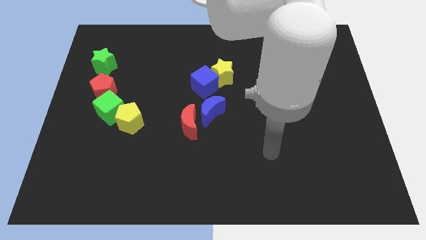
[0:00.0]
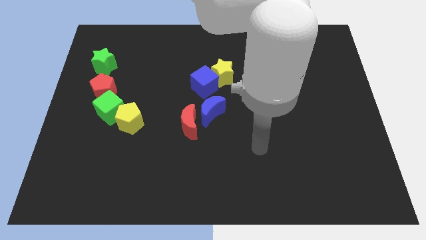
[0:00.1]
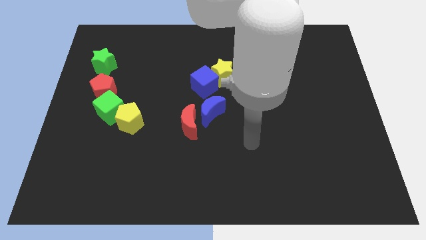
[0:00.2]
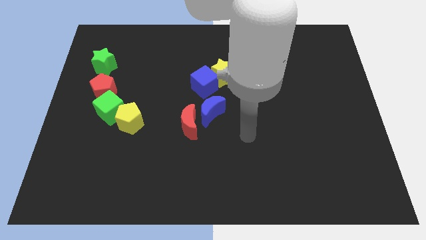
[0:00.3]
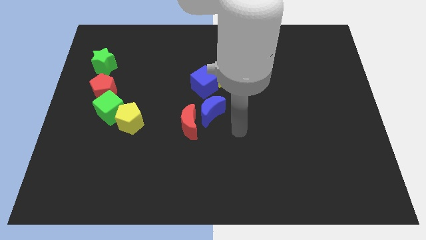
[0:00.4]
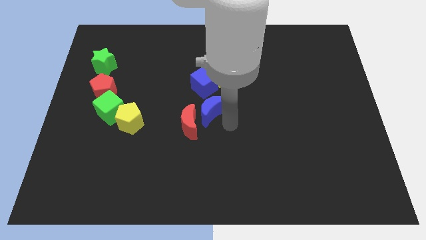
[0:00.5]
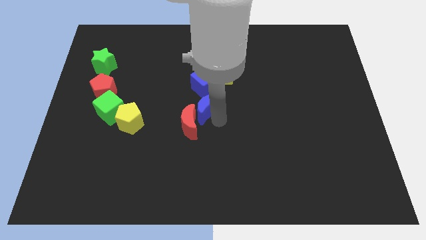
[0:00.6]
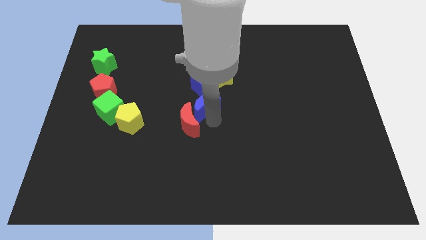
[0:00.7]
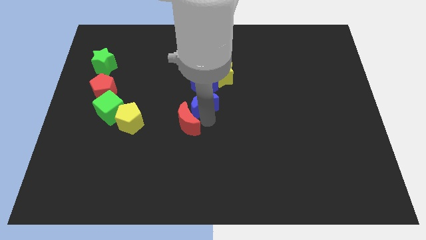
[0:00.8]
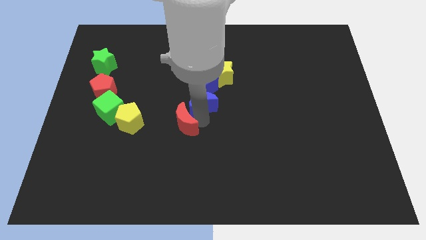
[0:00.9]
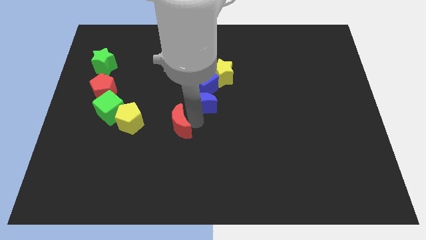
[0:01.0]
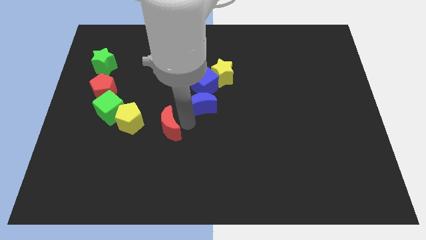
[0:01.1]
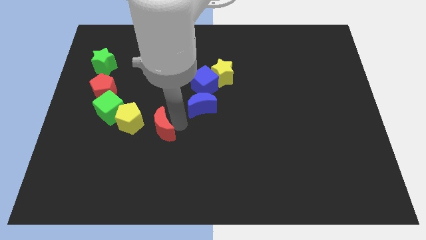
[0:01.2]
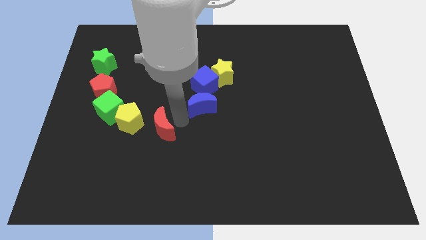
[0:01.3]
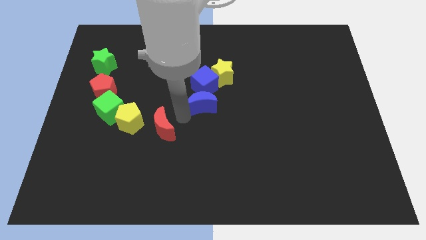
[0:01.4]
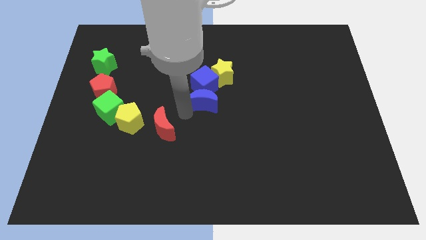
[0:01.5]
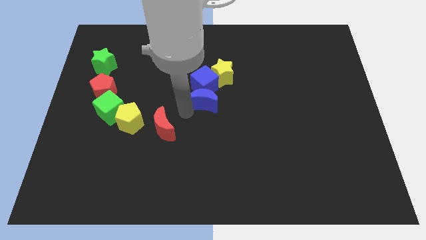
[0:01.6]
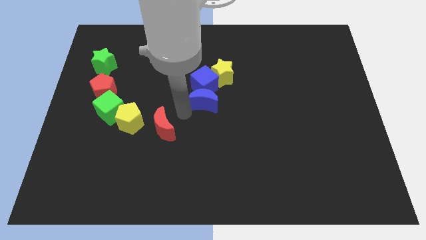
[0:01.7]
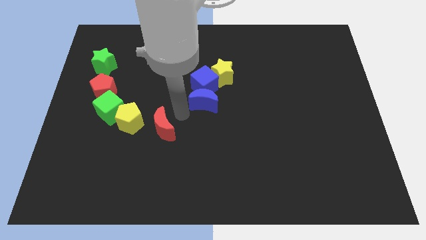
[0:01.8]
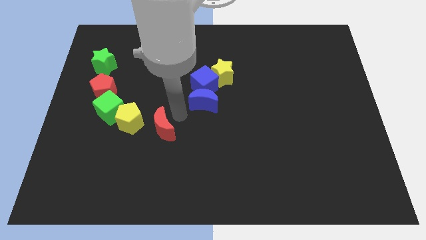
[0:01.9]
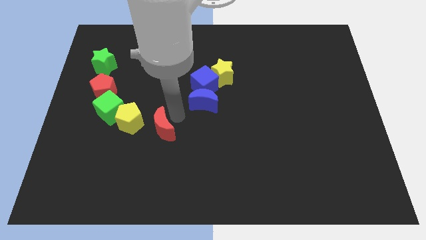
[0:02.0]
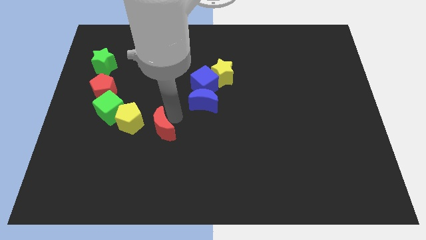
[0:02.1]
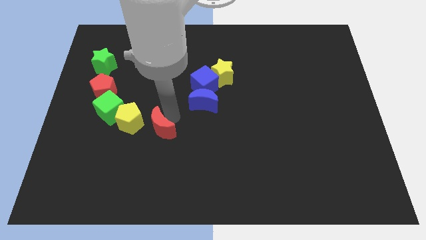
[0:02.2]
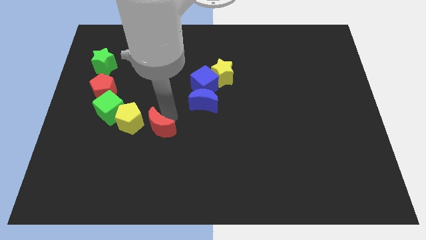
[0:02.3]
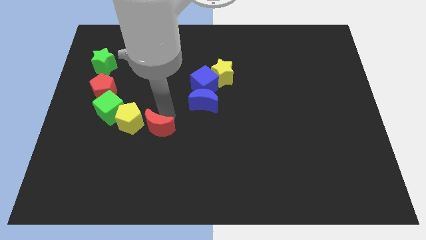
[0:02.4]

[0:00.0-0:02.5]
slightly push the red moon to the left

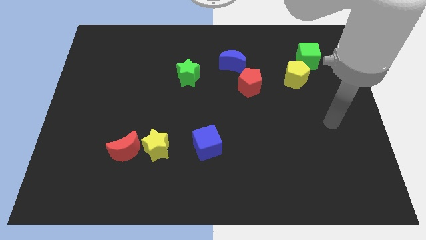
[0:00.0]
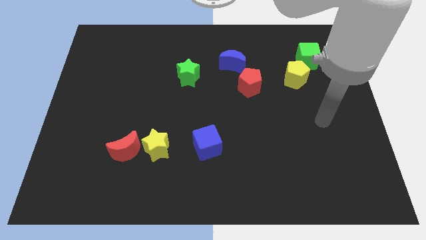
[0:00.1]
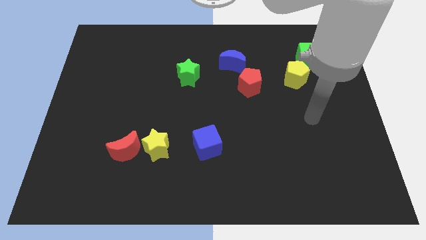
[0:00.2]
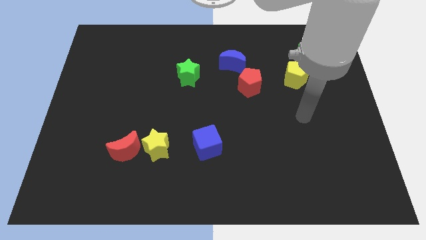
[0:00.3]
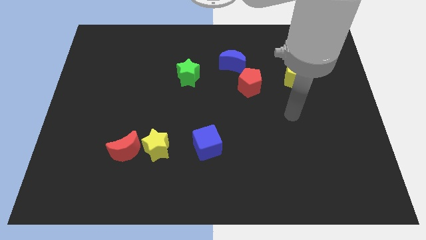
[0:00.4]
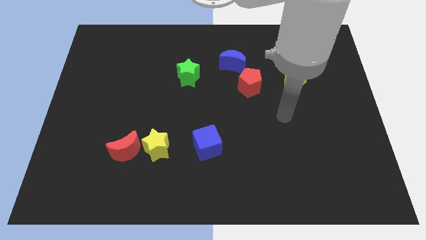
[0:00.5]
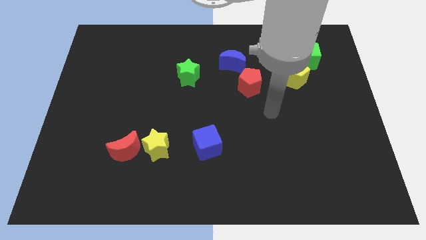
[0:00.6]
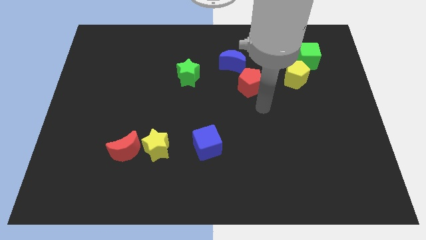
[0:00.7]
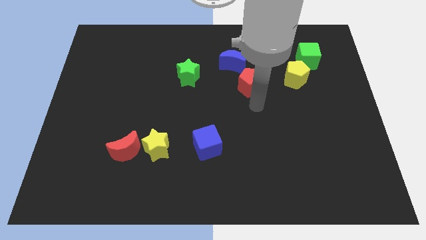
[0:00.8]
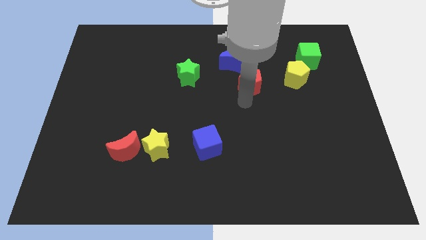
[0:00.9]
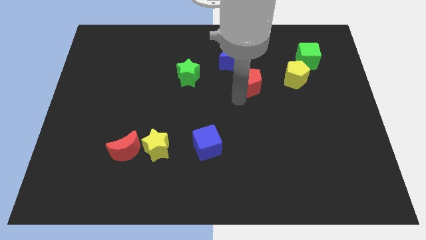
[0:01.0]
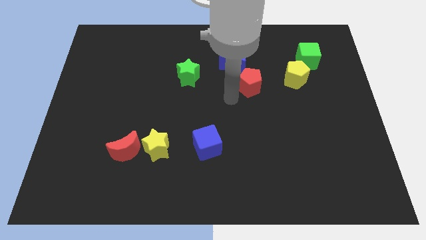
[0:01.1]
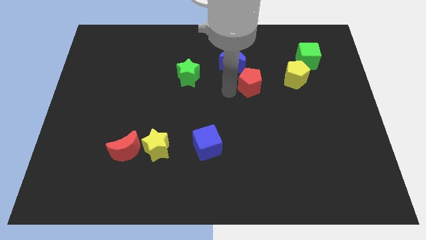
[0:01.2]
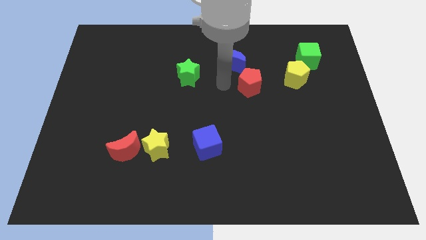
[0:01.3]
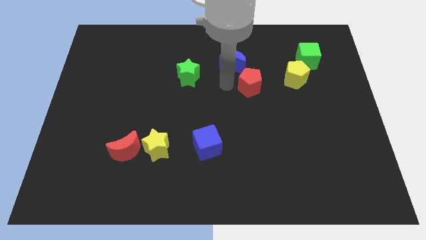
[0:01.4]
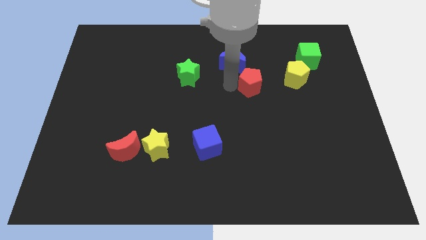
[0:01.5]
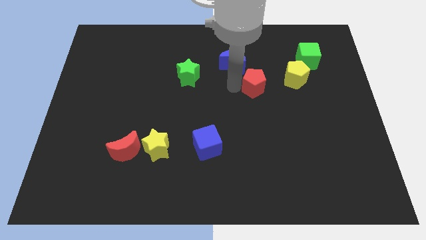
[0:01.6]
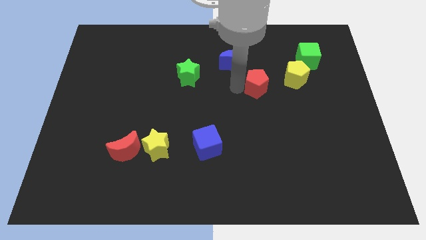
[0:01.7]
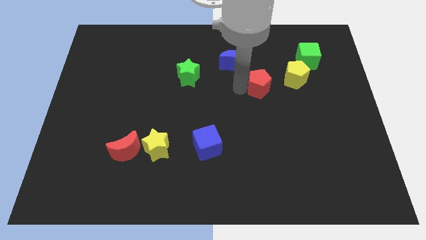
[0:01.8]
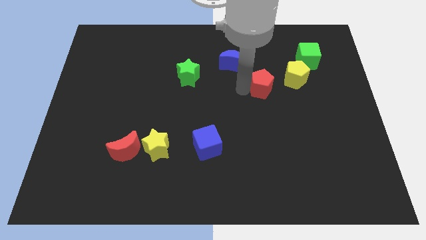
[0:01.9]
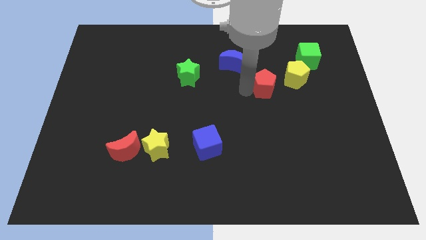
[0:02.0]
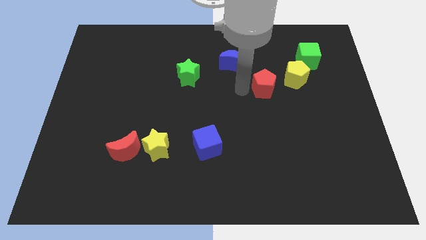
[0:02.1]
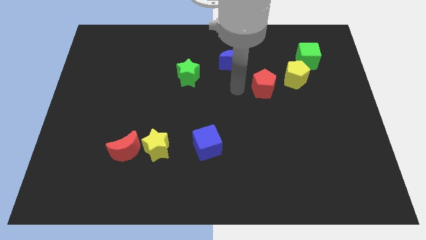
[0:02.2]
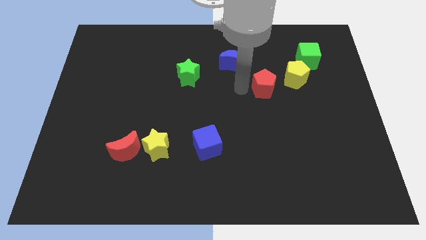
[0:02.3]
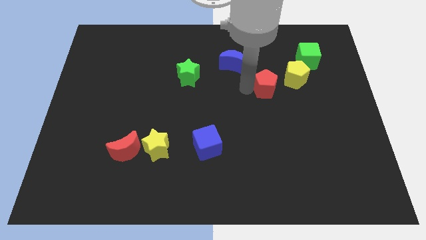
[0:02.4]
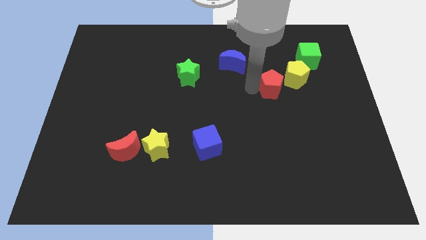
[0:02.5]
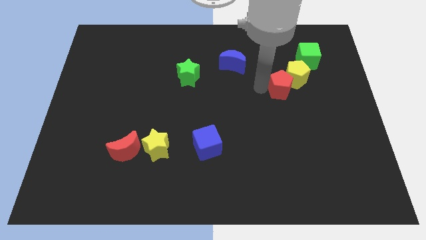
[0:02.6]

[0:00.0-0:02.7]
slightly move the red pentagon right

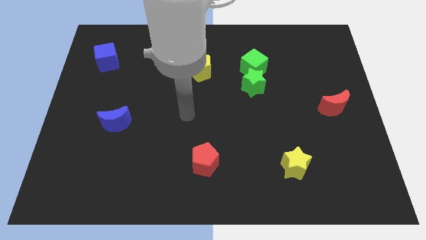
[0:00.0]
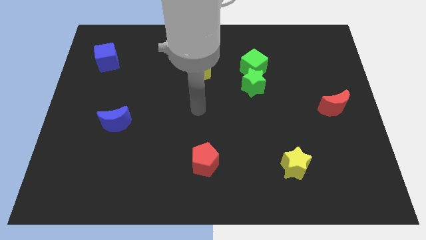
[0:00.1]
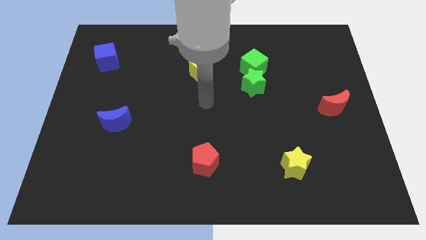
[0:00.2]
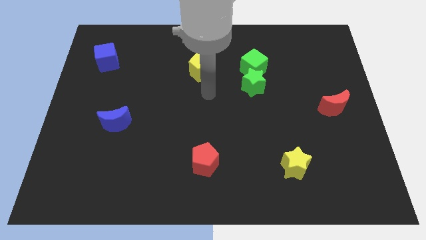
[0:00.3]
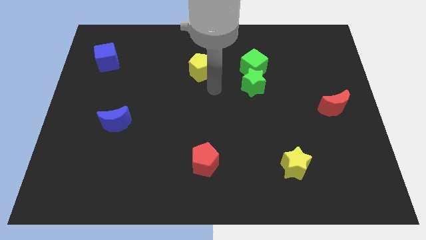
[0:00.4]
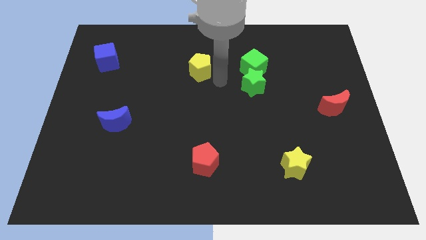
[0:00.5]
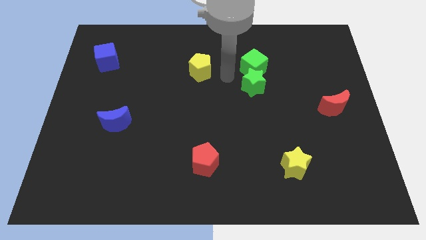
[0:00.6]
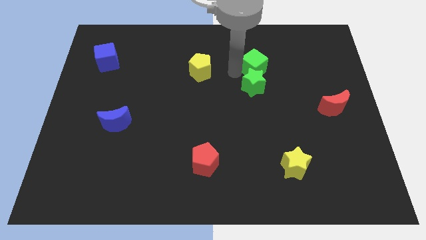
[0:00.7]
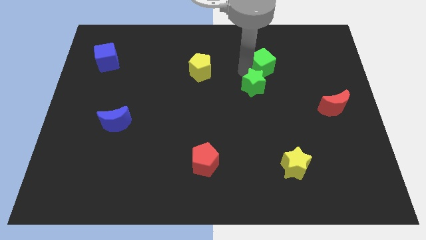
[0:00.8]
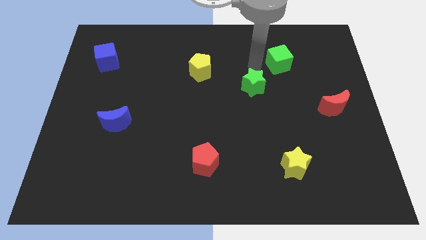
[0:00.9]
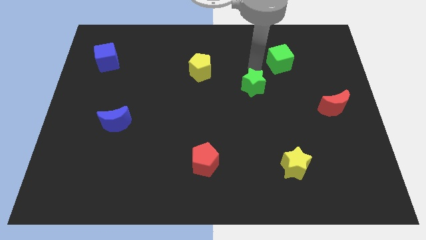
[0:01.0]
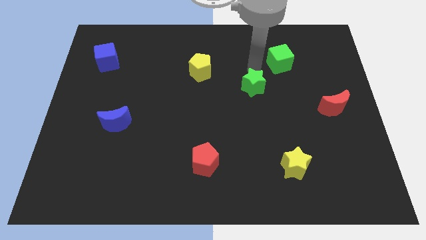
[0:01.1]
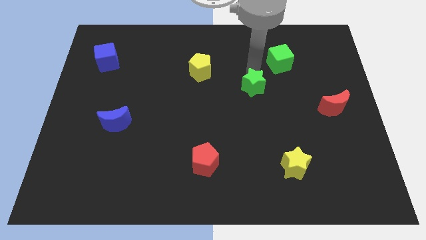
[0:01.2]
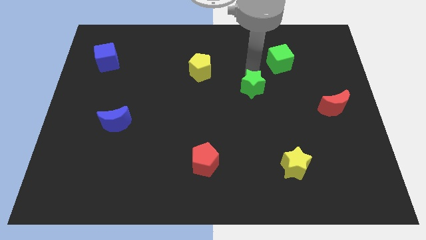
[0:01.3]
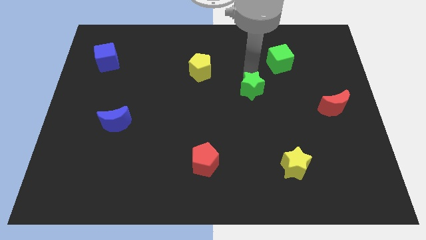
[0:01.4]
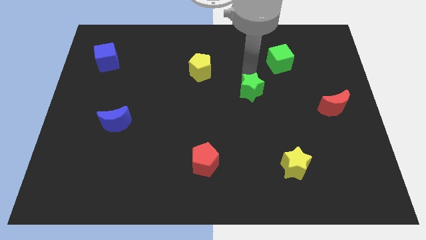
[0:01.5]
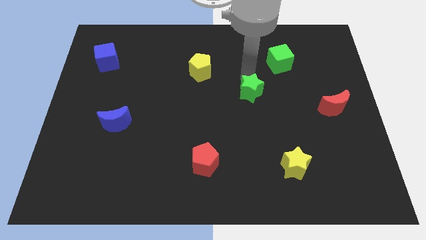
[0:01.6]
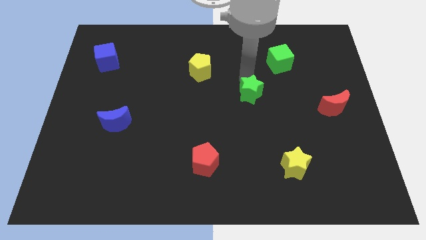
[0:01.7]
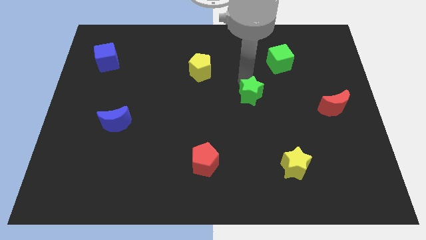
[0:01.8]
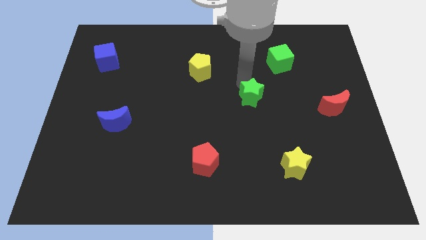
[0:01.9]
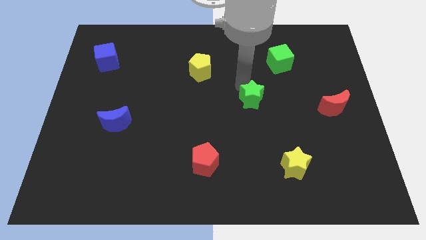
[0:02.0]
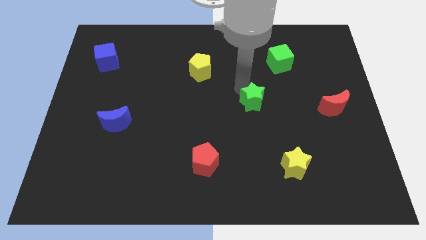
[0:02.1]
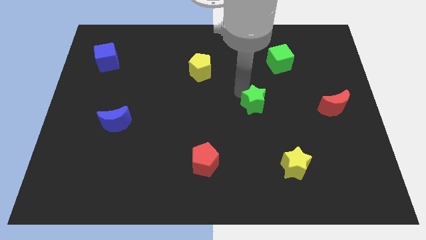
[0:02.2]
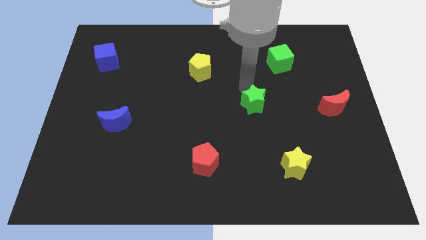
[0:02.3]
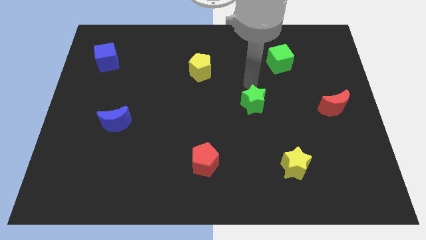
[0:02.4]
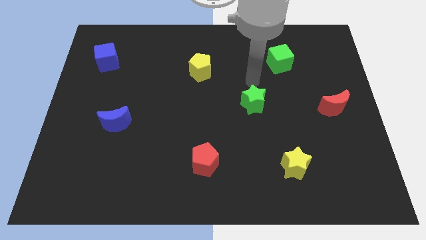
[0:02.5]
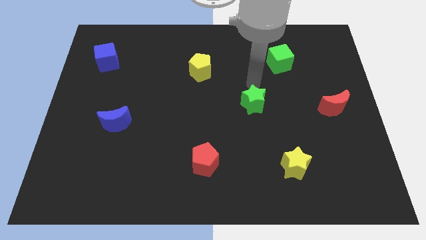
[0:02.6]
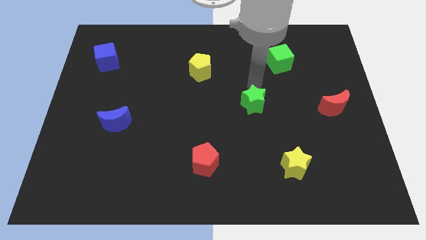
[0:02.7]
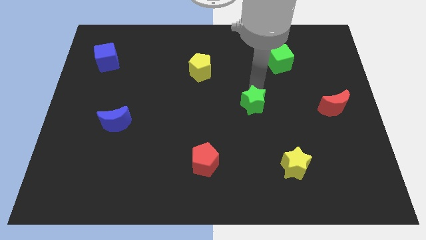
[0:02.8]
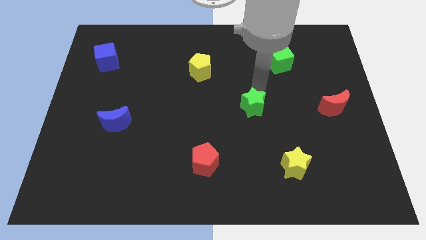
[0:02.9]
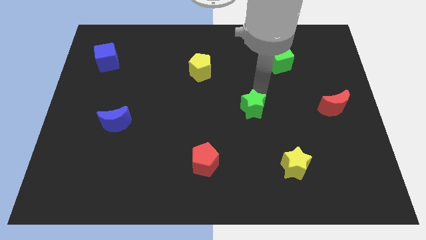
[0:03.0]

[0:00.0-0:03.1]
slightly push the green star downwards
